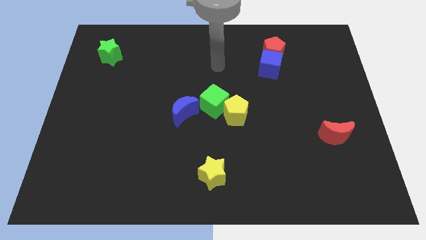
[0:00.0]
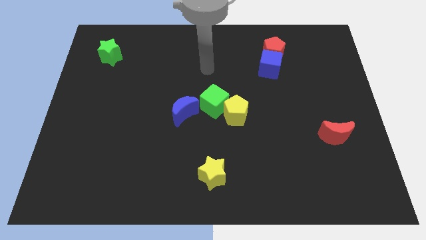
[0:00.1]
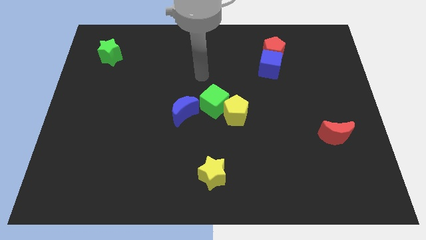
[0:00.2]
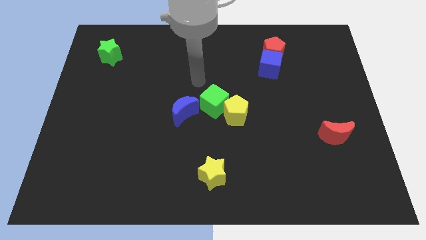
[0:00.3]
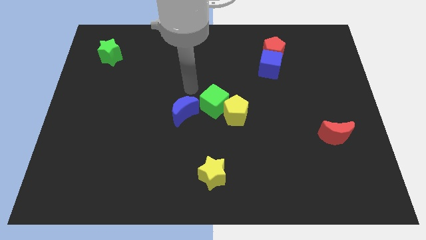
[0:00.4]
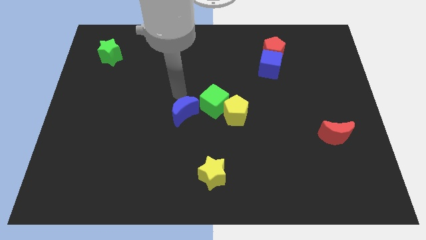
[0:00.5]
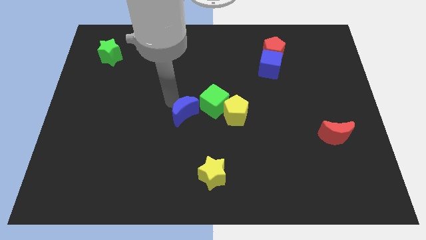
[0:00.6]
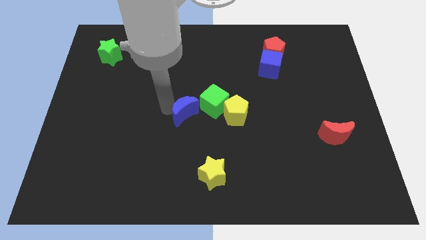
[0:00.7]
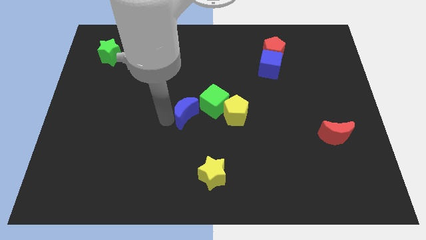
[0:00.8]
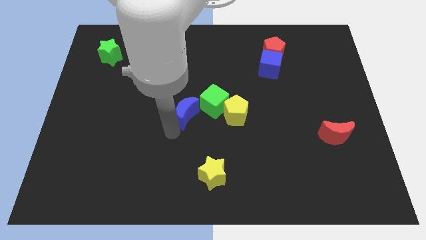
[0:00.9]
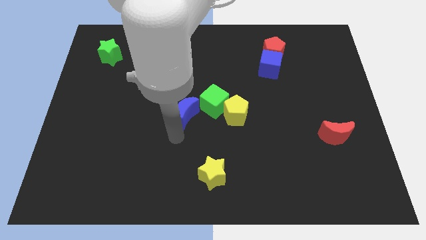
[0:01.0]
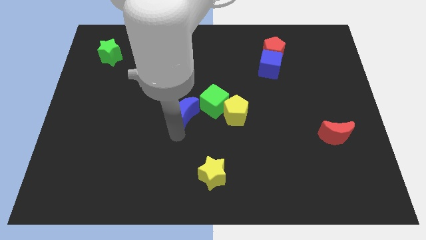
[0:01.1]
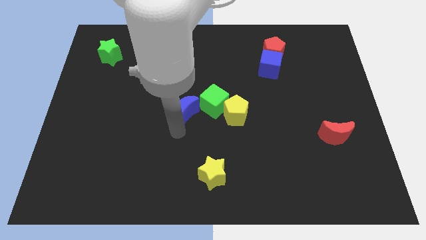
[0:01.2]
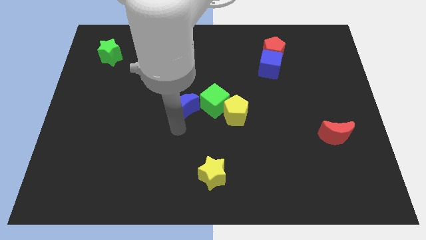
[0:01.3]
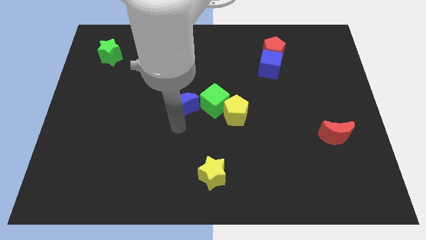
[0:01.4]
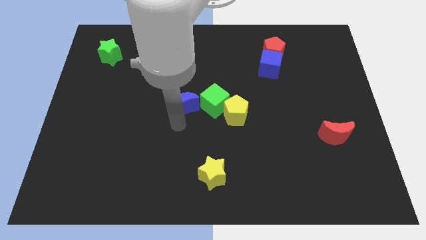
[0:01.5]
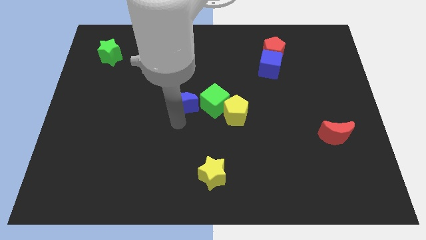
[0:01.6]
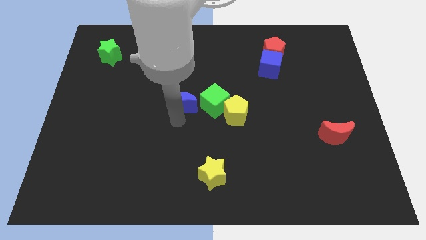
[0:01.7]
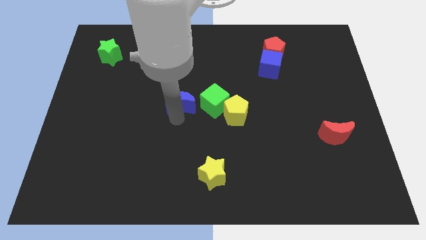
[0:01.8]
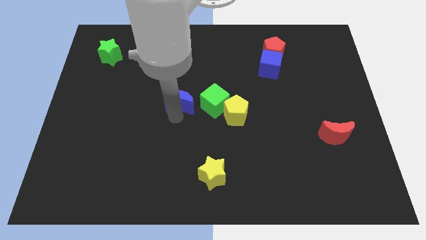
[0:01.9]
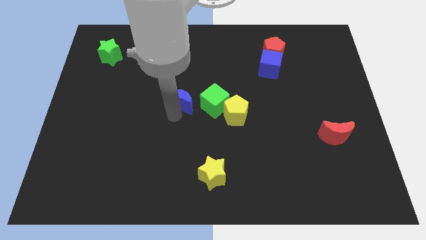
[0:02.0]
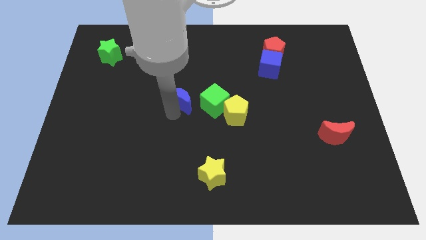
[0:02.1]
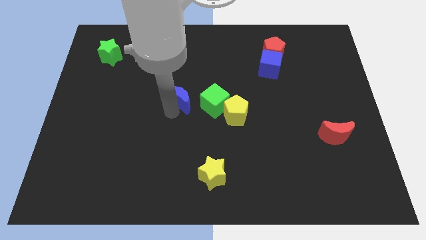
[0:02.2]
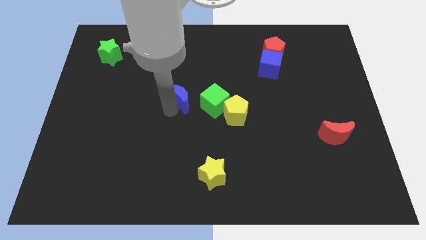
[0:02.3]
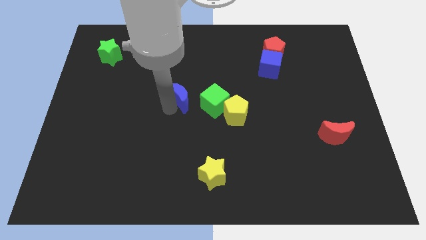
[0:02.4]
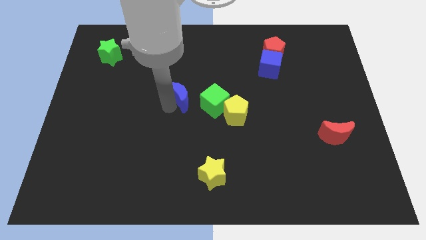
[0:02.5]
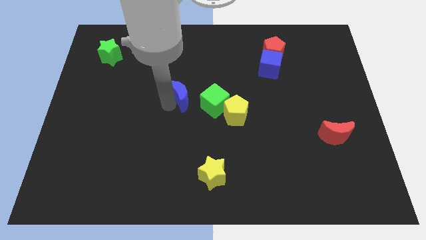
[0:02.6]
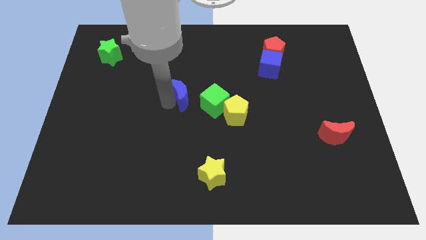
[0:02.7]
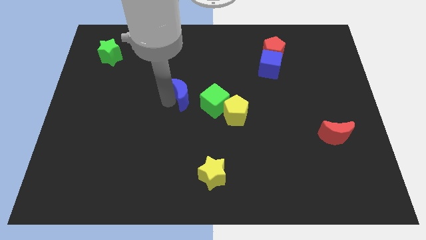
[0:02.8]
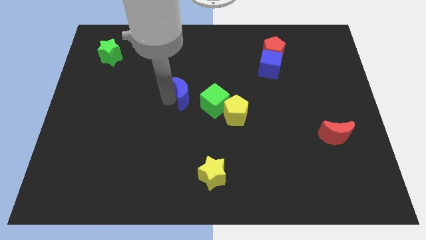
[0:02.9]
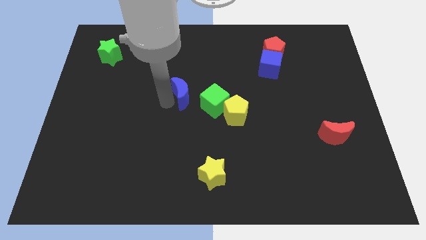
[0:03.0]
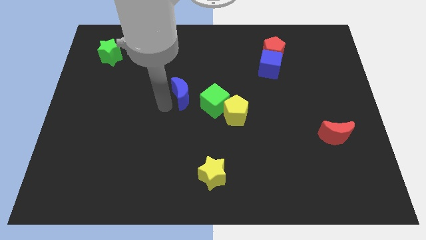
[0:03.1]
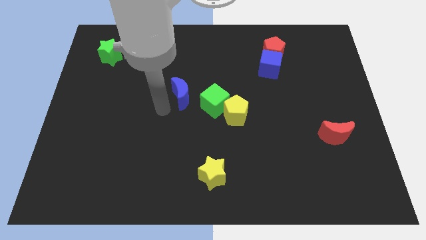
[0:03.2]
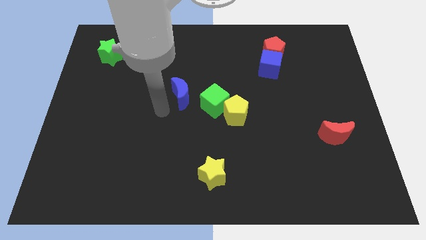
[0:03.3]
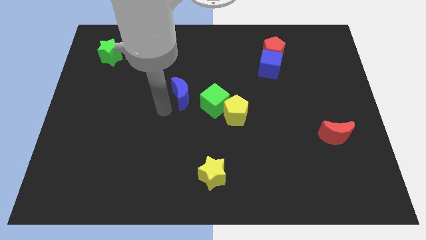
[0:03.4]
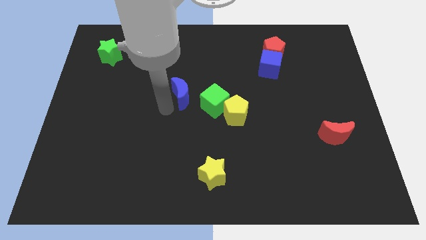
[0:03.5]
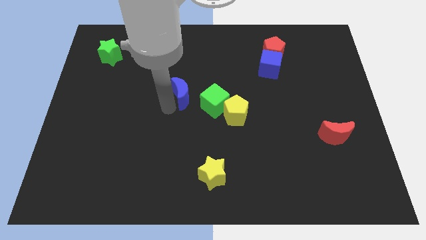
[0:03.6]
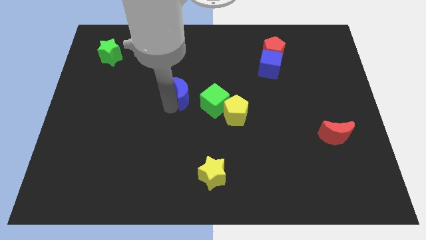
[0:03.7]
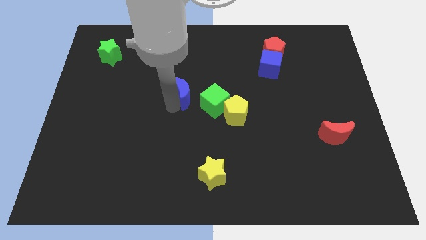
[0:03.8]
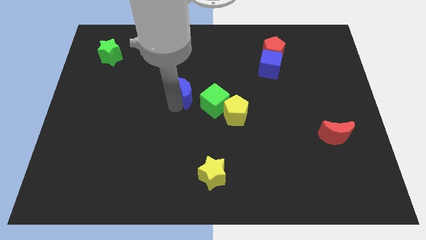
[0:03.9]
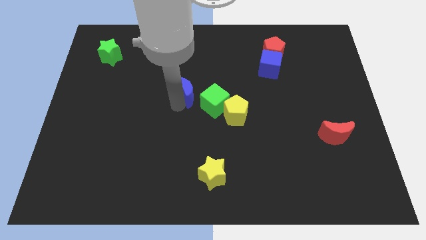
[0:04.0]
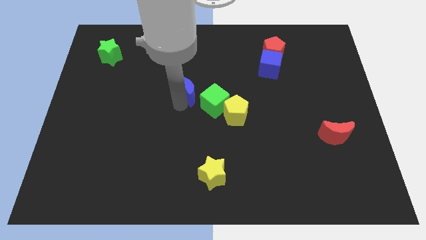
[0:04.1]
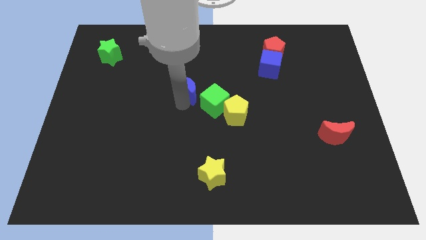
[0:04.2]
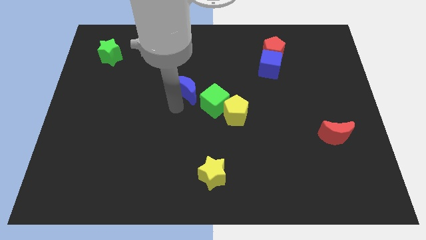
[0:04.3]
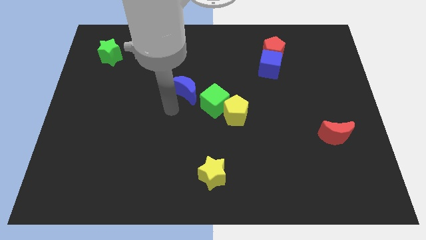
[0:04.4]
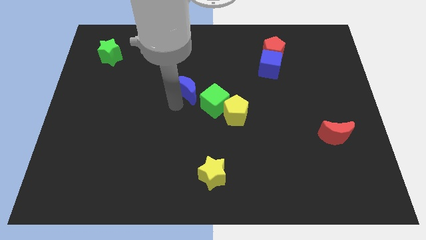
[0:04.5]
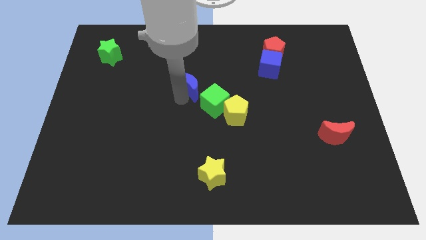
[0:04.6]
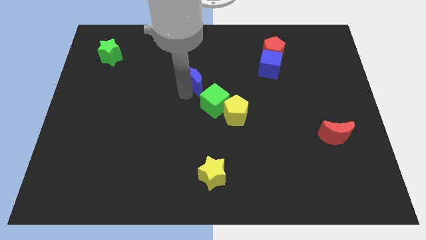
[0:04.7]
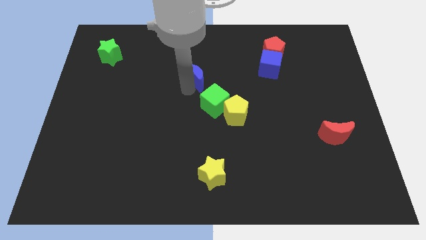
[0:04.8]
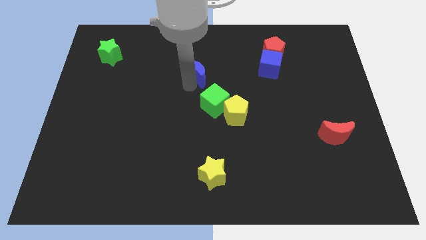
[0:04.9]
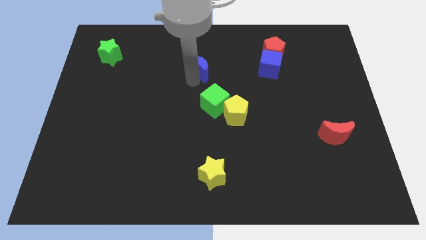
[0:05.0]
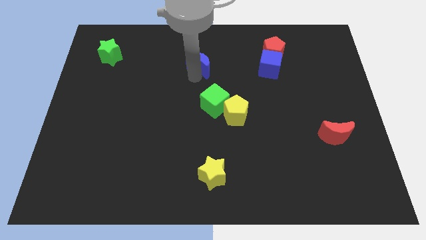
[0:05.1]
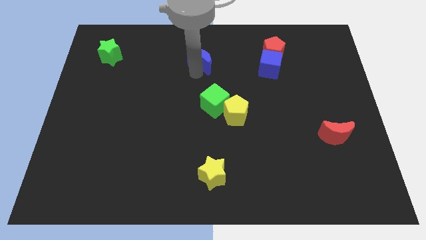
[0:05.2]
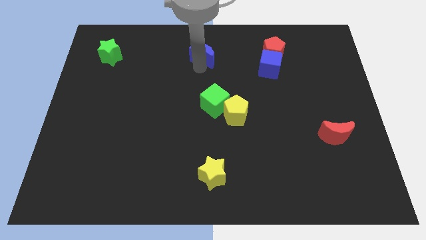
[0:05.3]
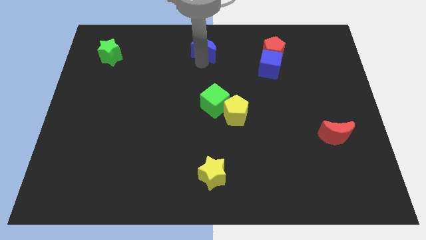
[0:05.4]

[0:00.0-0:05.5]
slide the blue moon to the top side
